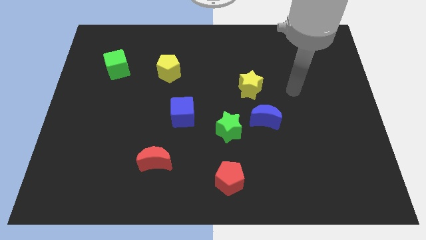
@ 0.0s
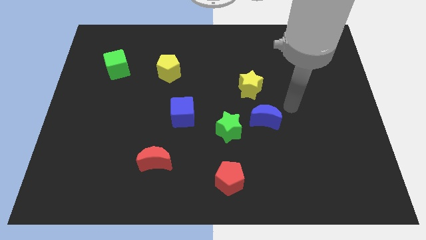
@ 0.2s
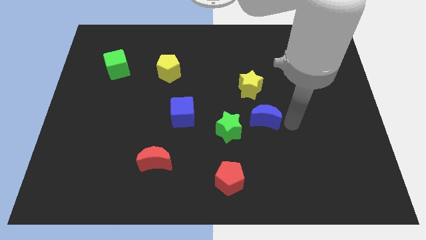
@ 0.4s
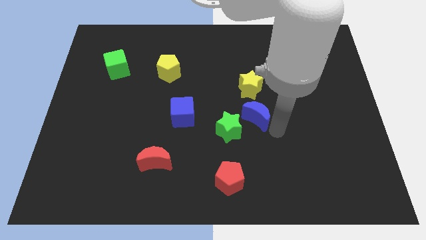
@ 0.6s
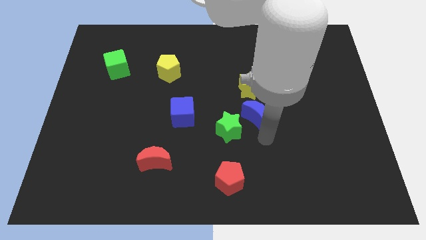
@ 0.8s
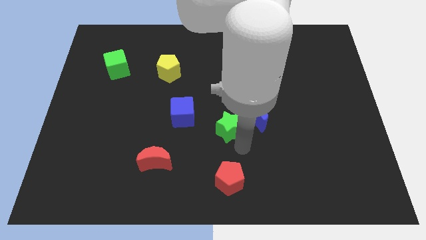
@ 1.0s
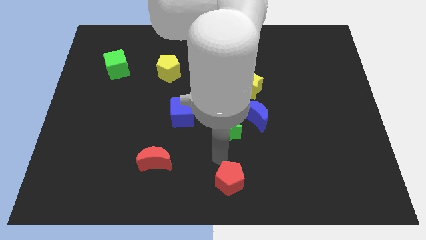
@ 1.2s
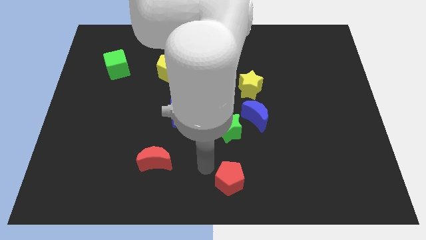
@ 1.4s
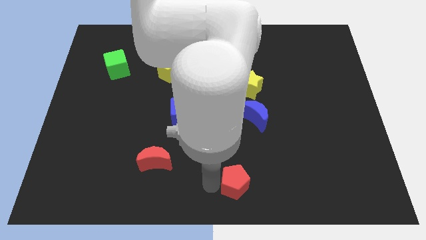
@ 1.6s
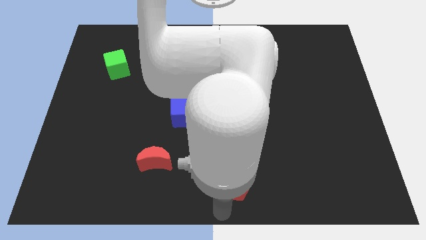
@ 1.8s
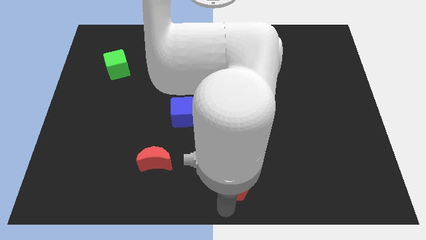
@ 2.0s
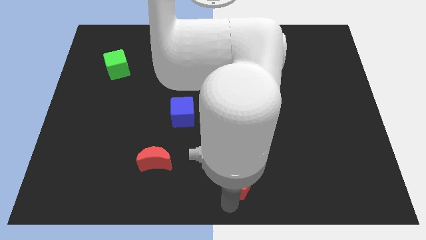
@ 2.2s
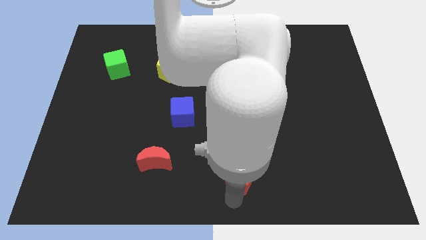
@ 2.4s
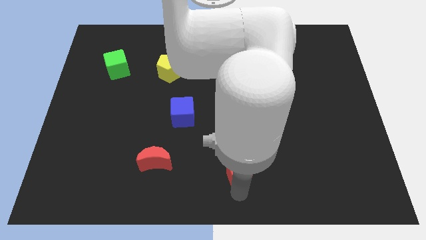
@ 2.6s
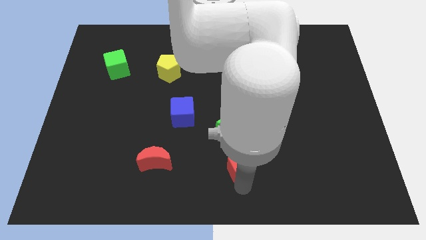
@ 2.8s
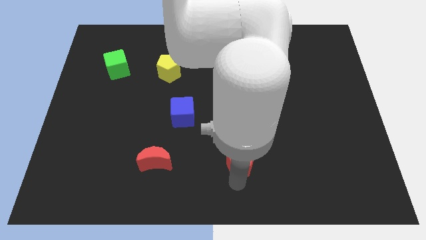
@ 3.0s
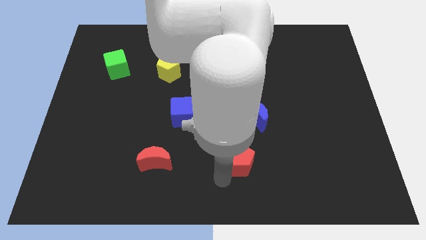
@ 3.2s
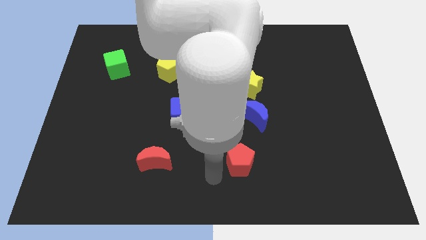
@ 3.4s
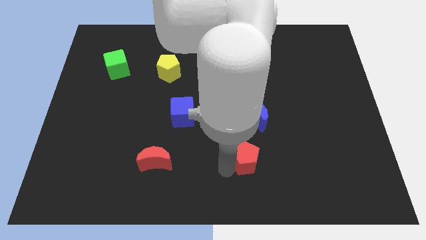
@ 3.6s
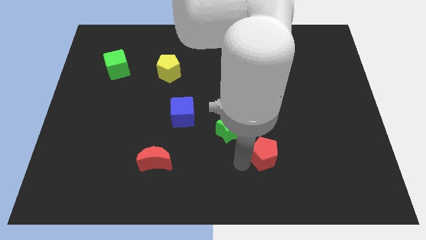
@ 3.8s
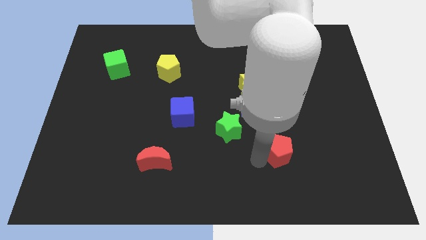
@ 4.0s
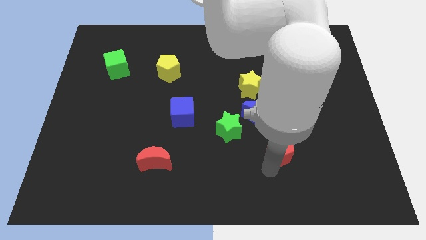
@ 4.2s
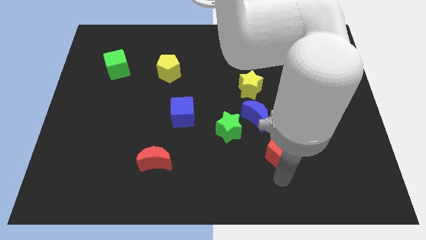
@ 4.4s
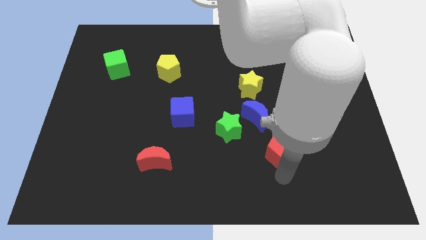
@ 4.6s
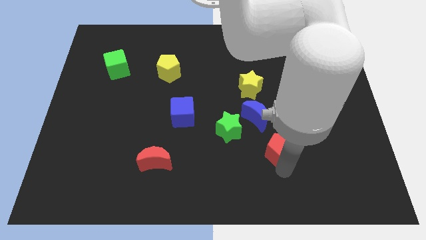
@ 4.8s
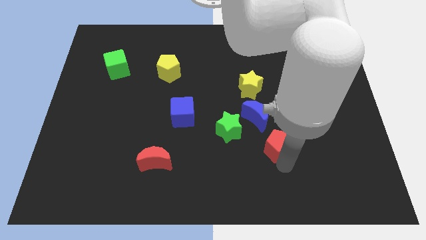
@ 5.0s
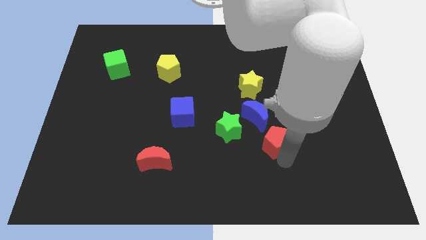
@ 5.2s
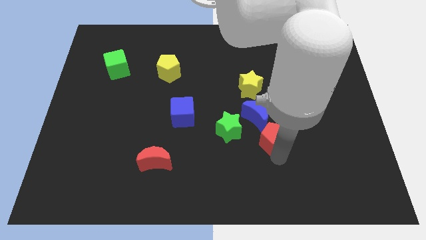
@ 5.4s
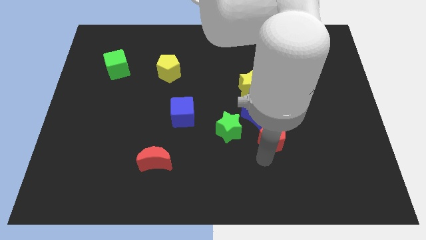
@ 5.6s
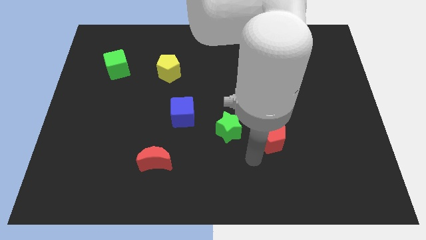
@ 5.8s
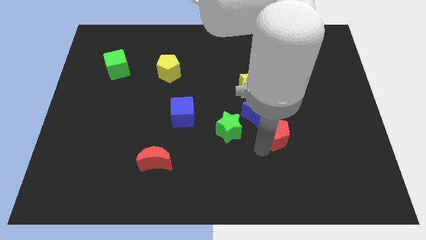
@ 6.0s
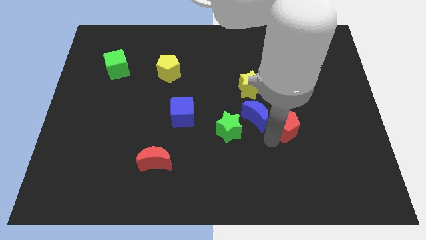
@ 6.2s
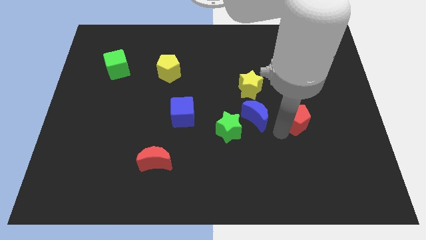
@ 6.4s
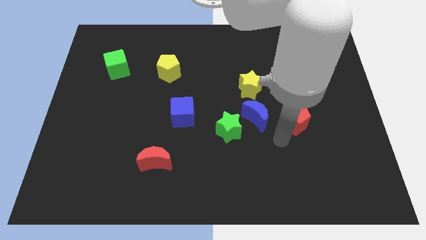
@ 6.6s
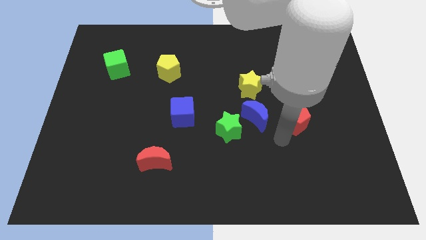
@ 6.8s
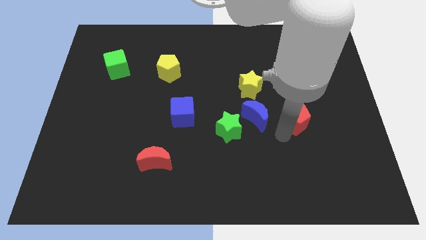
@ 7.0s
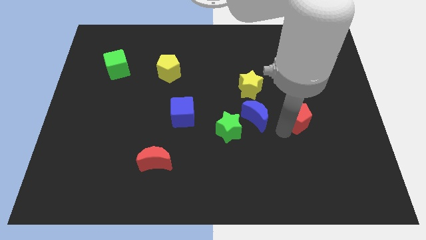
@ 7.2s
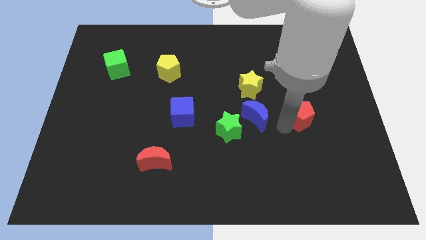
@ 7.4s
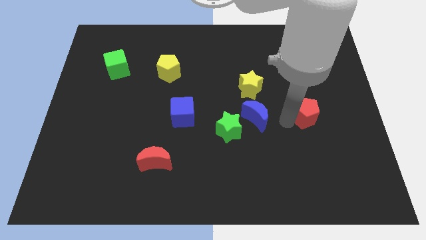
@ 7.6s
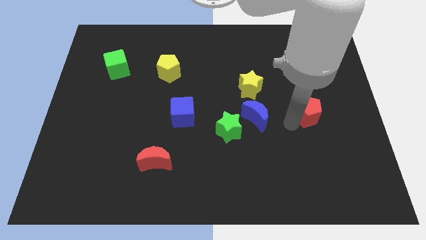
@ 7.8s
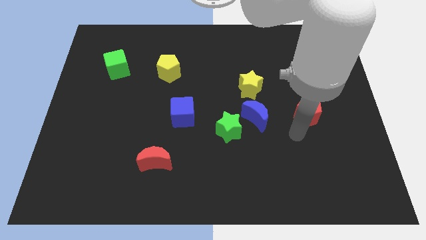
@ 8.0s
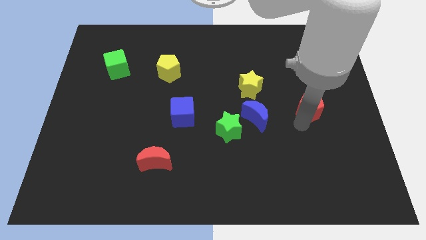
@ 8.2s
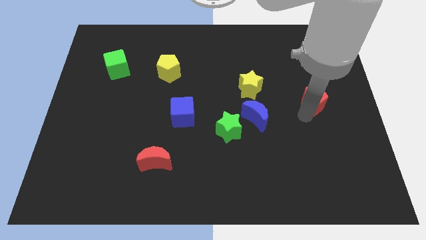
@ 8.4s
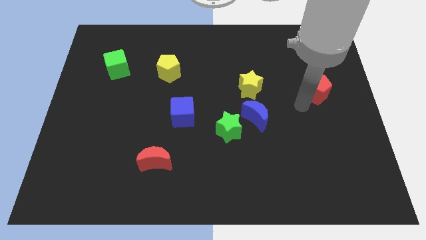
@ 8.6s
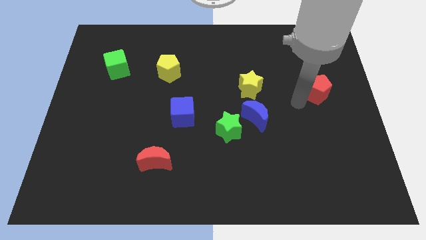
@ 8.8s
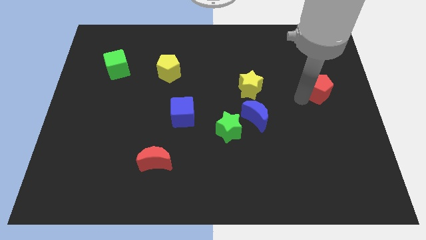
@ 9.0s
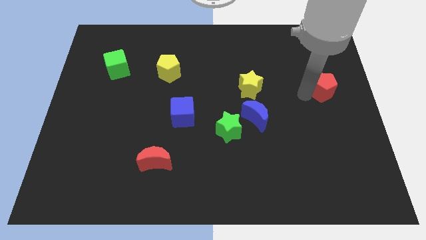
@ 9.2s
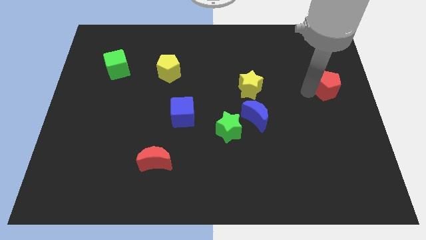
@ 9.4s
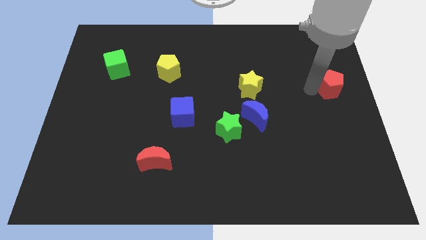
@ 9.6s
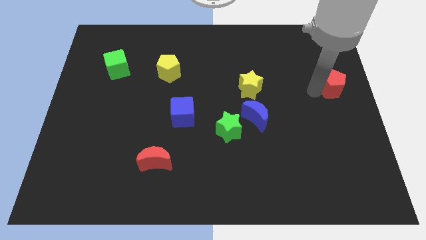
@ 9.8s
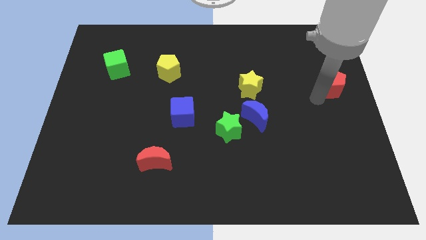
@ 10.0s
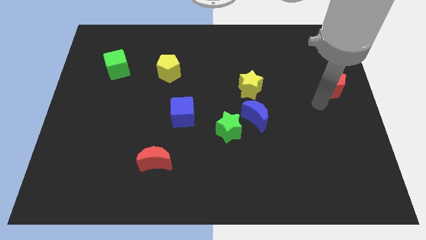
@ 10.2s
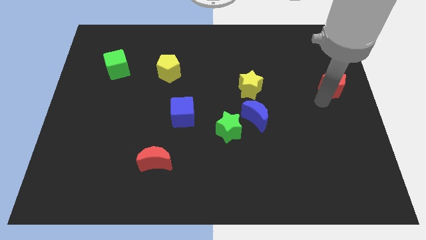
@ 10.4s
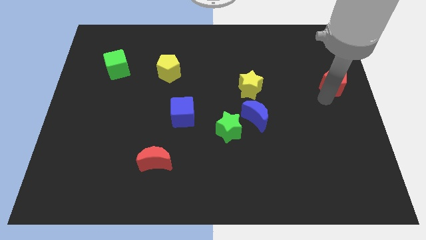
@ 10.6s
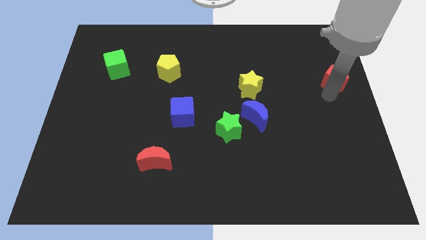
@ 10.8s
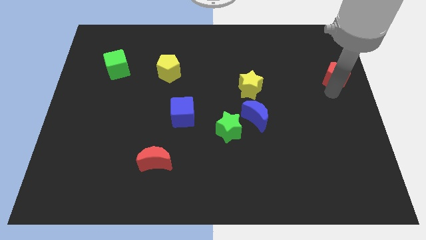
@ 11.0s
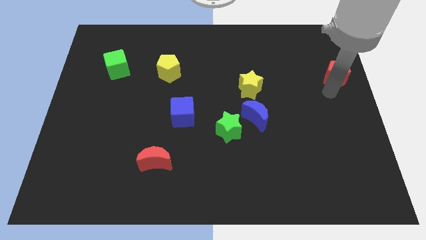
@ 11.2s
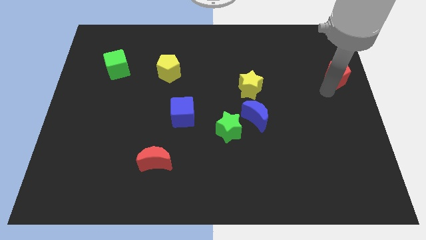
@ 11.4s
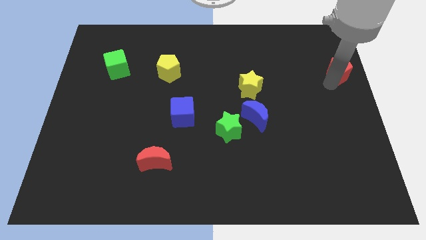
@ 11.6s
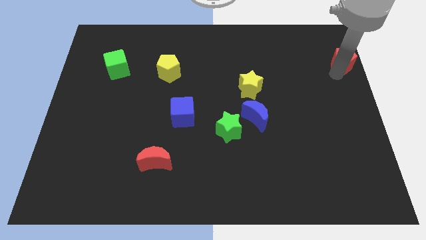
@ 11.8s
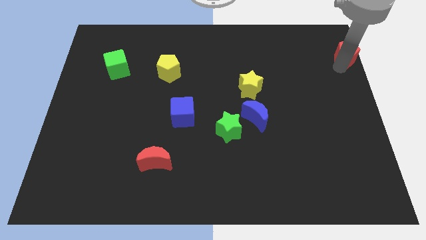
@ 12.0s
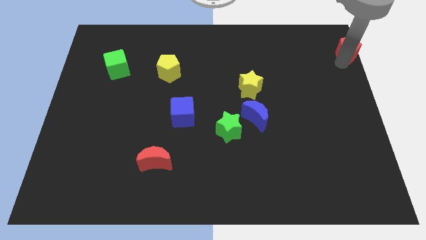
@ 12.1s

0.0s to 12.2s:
push the red pentagon to the upper right corner
